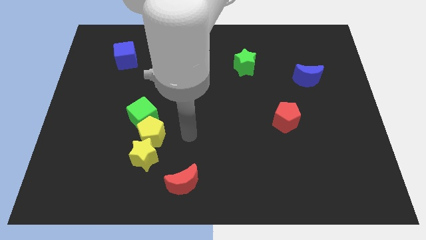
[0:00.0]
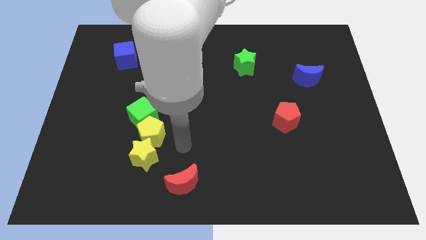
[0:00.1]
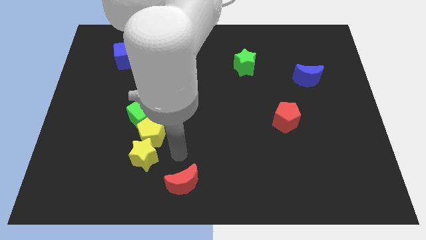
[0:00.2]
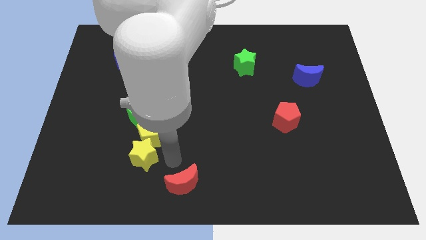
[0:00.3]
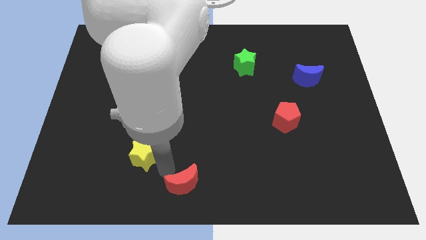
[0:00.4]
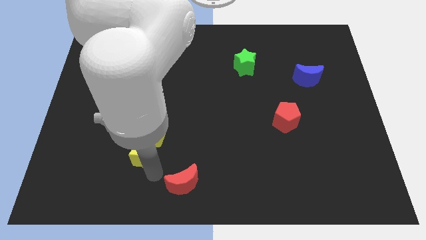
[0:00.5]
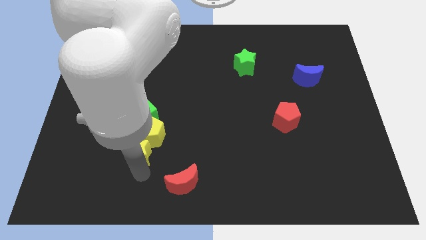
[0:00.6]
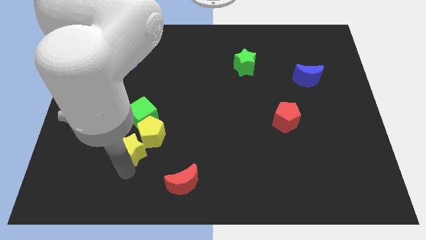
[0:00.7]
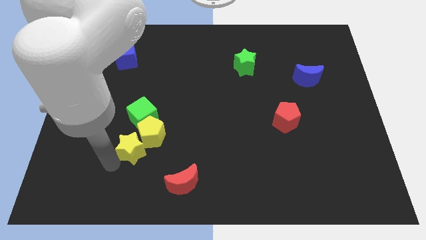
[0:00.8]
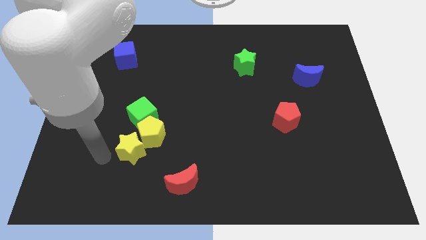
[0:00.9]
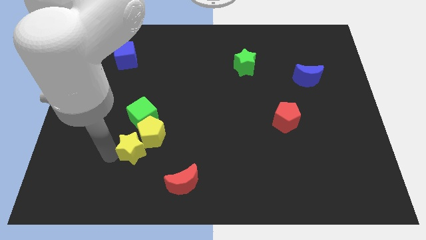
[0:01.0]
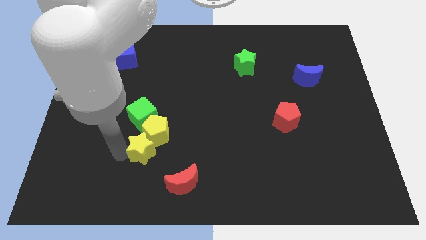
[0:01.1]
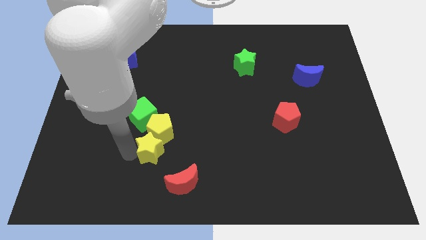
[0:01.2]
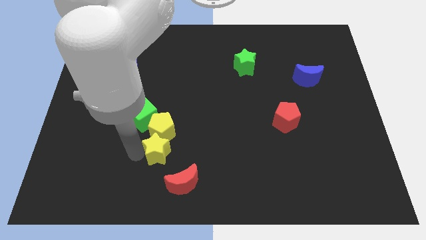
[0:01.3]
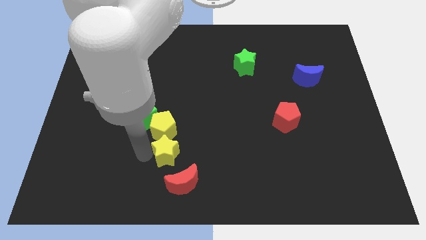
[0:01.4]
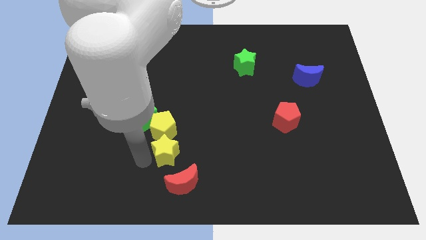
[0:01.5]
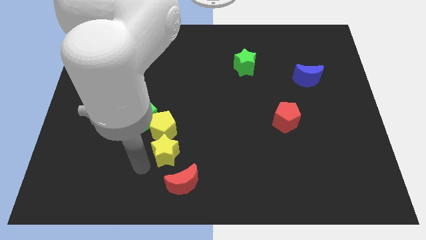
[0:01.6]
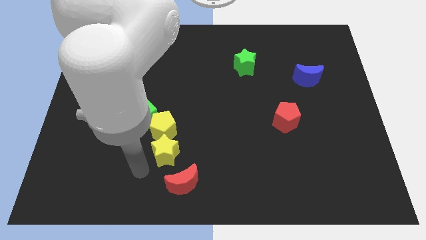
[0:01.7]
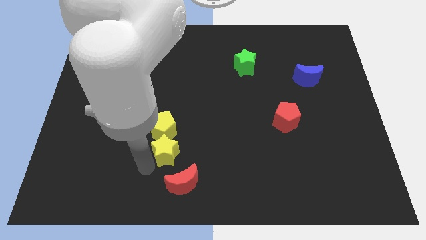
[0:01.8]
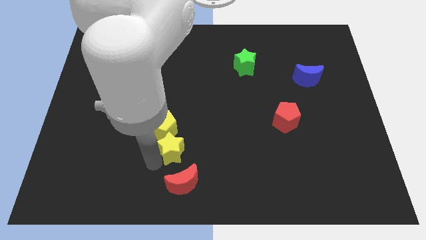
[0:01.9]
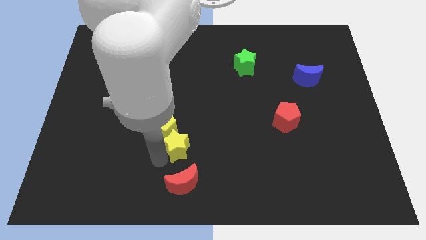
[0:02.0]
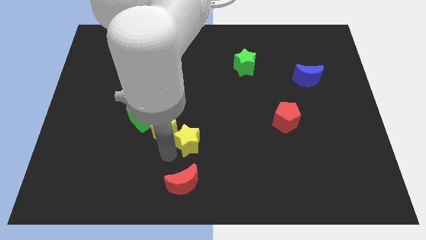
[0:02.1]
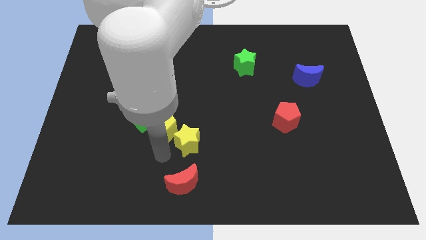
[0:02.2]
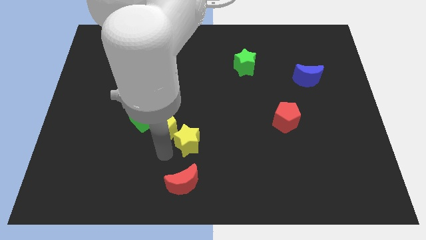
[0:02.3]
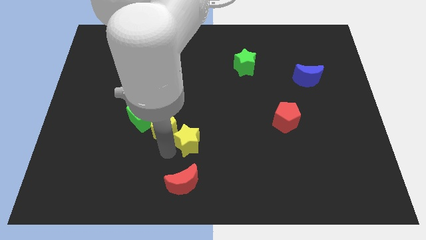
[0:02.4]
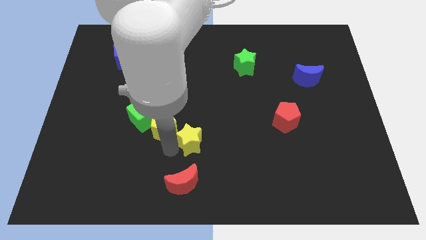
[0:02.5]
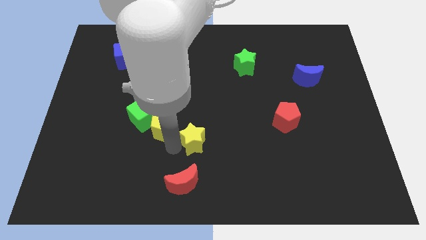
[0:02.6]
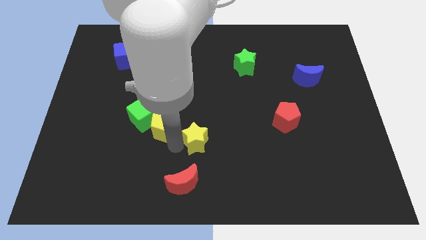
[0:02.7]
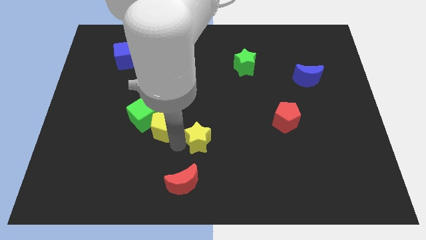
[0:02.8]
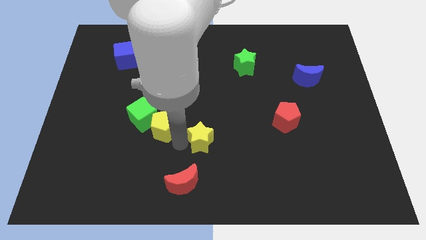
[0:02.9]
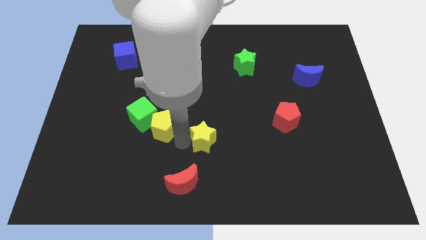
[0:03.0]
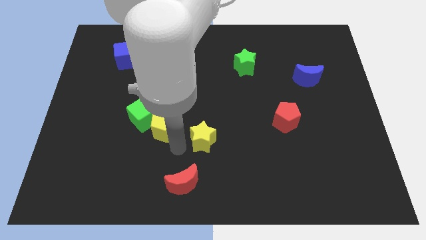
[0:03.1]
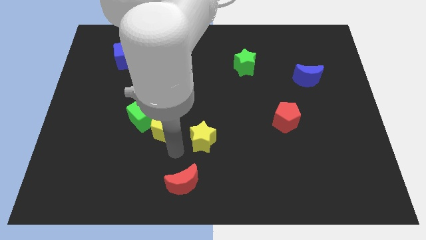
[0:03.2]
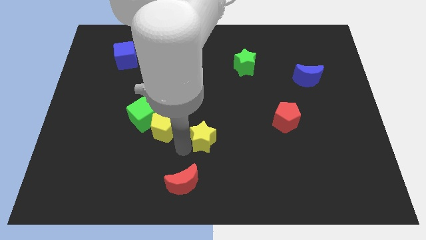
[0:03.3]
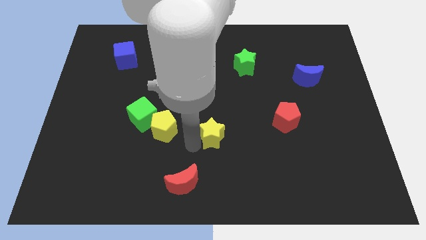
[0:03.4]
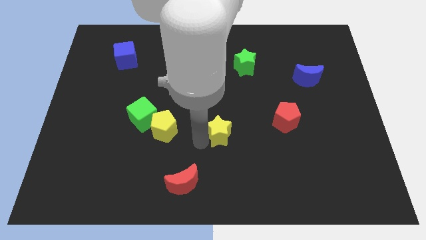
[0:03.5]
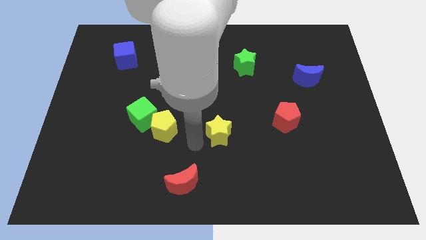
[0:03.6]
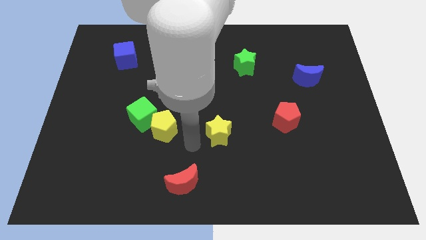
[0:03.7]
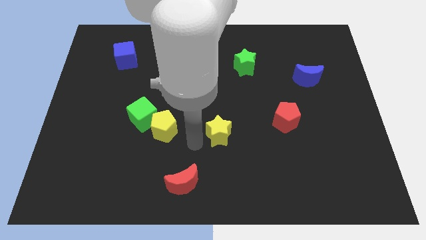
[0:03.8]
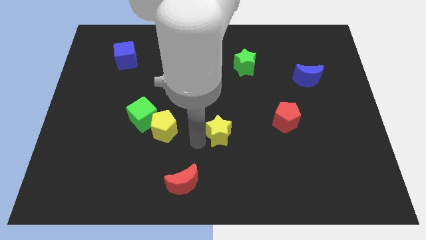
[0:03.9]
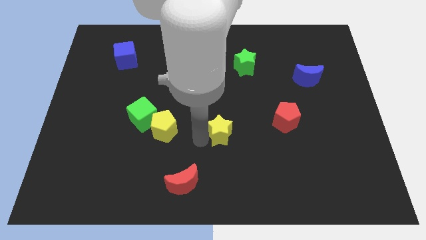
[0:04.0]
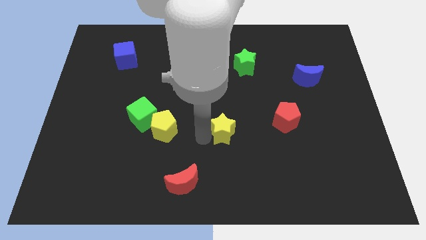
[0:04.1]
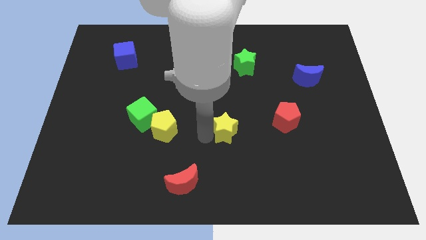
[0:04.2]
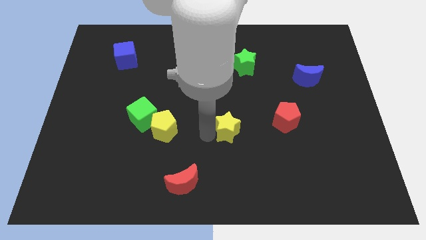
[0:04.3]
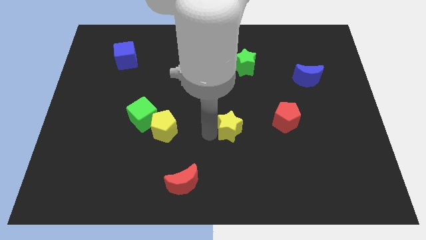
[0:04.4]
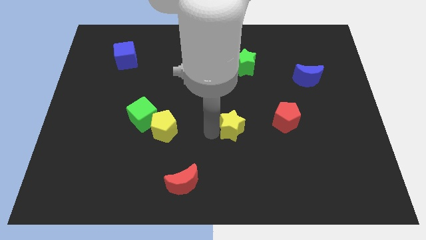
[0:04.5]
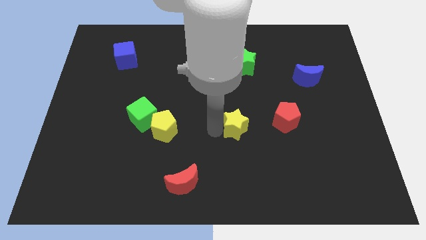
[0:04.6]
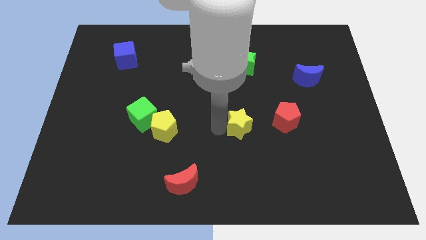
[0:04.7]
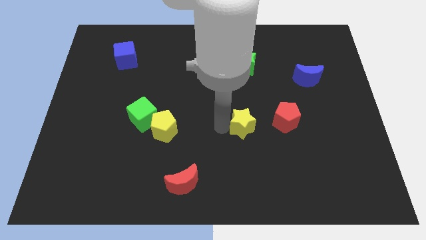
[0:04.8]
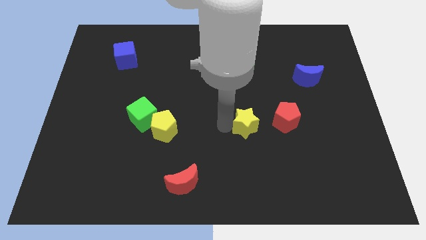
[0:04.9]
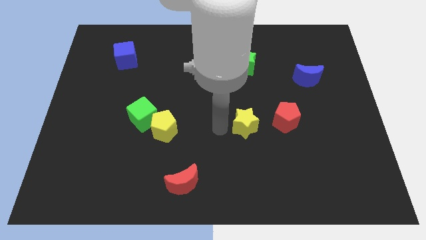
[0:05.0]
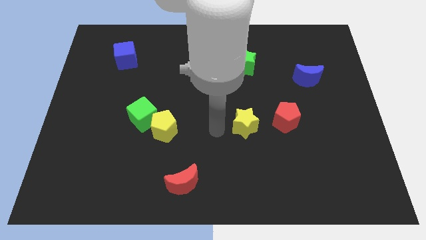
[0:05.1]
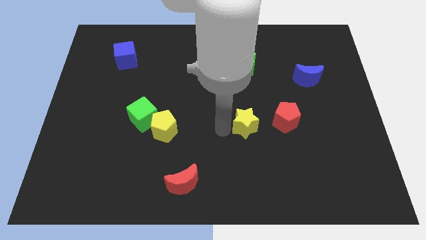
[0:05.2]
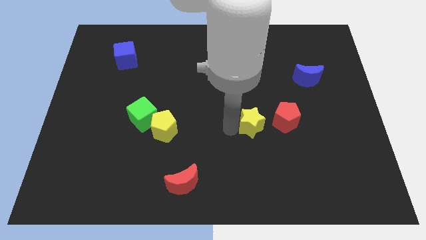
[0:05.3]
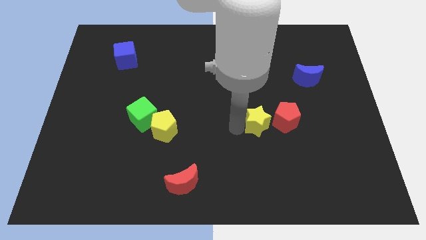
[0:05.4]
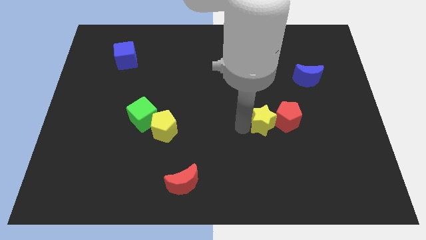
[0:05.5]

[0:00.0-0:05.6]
push the yellow star close to the red pentagon
